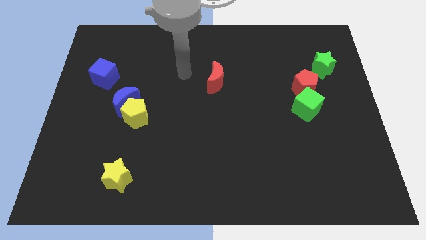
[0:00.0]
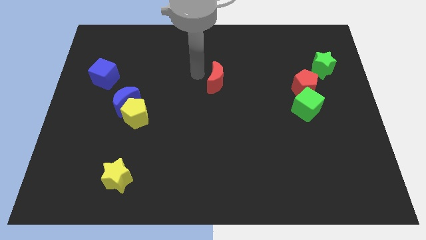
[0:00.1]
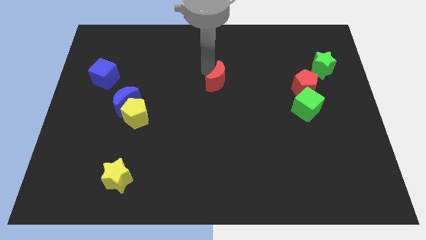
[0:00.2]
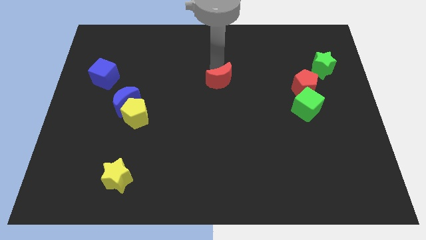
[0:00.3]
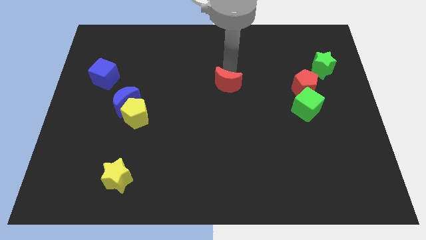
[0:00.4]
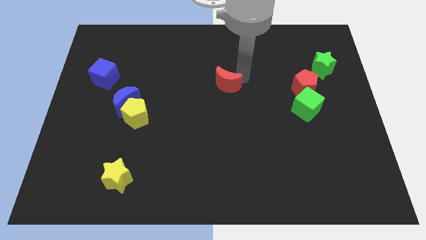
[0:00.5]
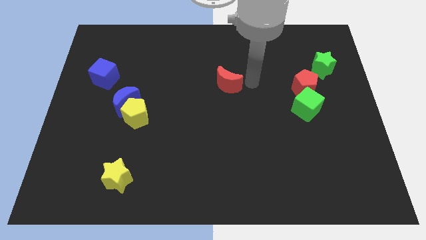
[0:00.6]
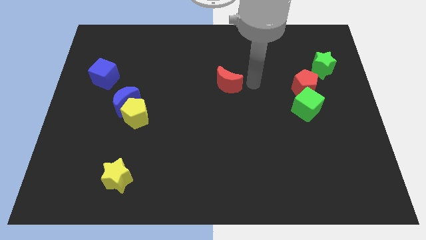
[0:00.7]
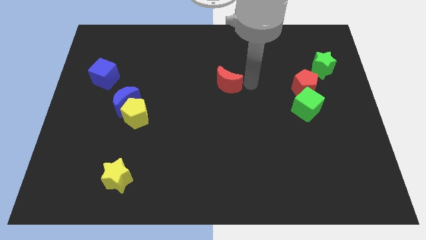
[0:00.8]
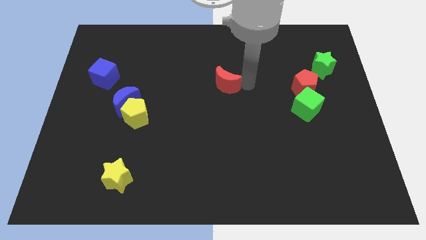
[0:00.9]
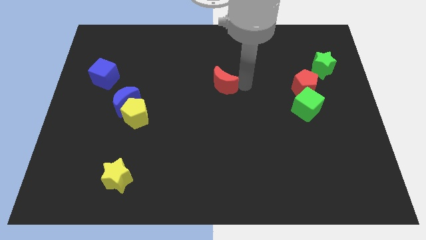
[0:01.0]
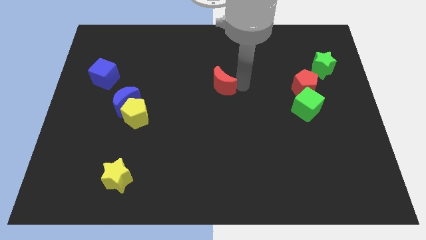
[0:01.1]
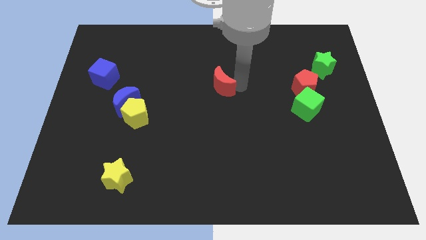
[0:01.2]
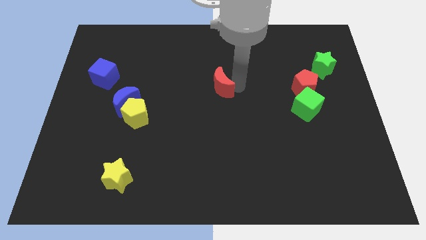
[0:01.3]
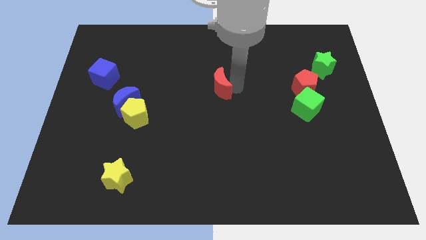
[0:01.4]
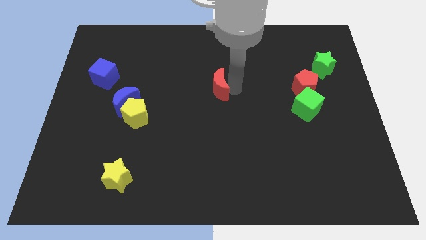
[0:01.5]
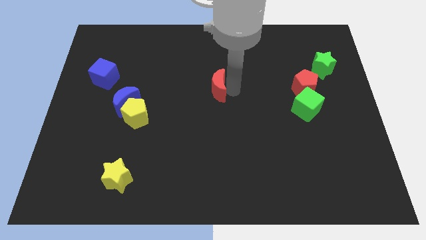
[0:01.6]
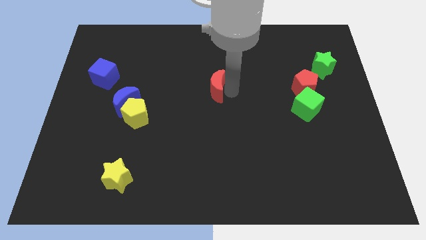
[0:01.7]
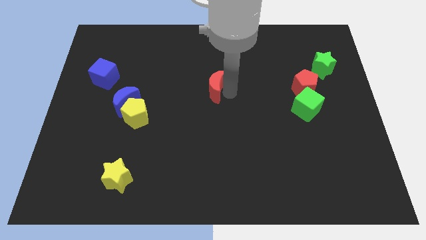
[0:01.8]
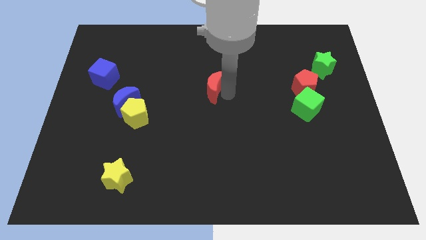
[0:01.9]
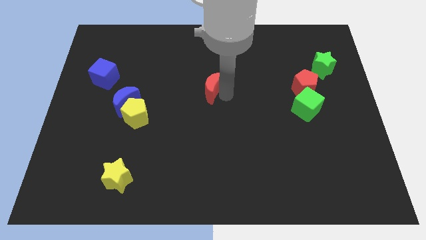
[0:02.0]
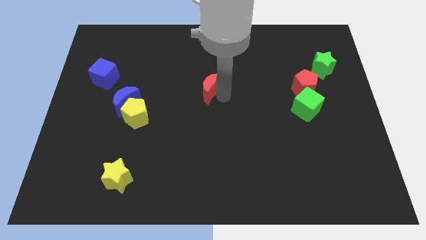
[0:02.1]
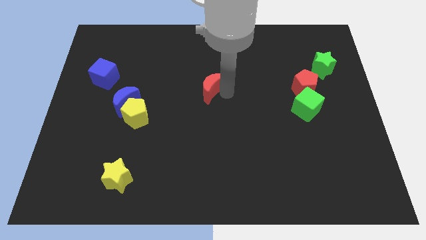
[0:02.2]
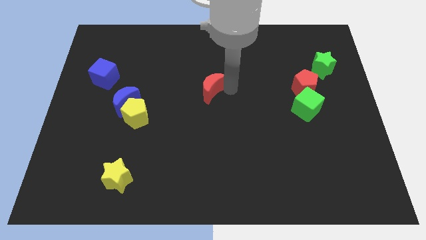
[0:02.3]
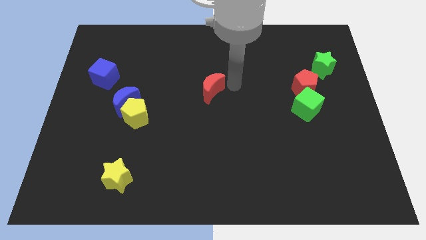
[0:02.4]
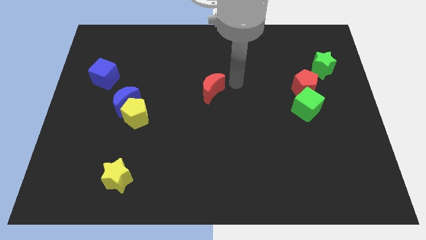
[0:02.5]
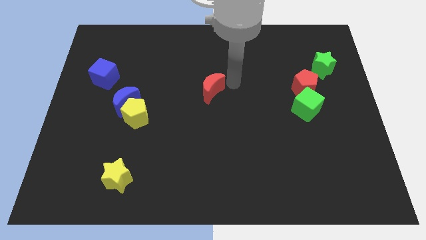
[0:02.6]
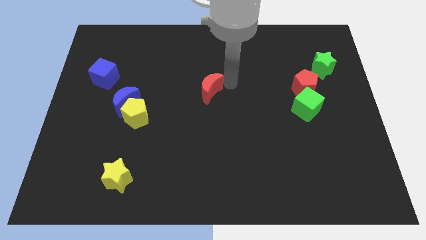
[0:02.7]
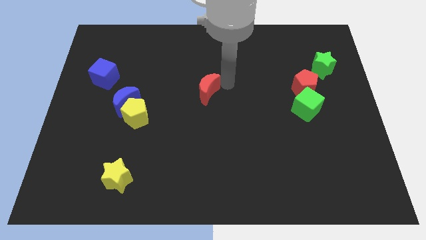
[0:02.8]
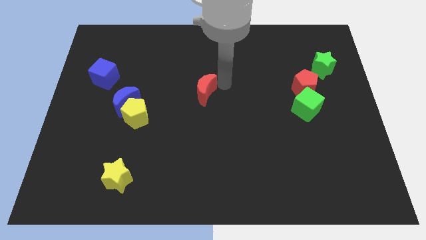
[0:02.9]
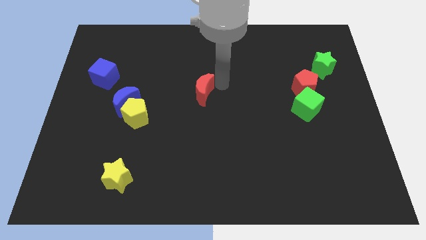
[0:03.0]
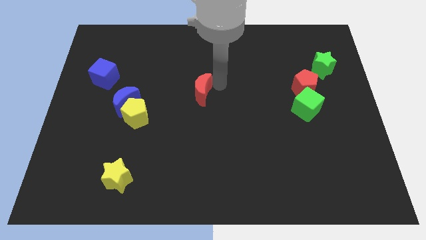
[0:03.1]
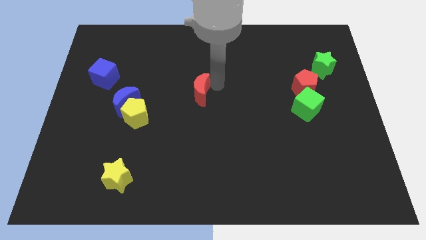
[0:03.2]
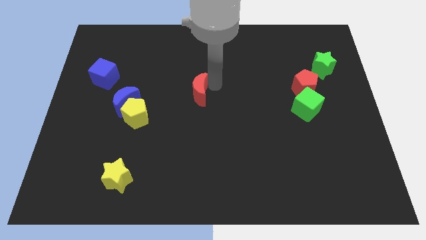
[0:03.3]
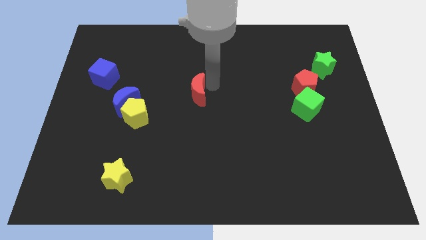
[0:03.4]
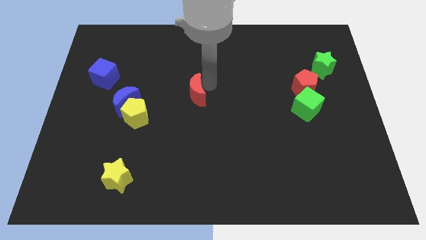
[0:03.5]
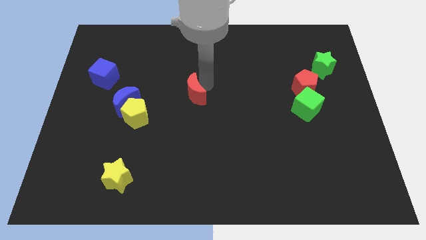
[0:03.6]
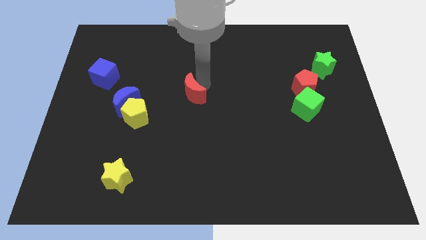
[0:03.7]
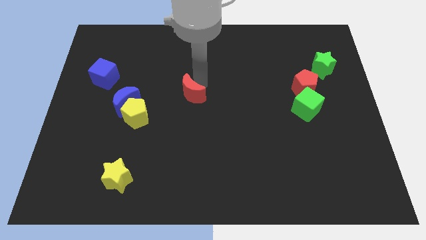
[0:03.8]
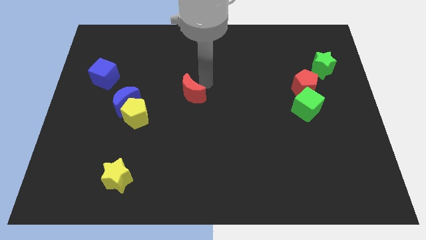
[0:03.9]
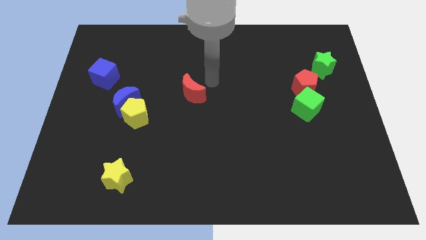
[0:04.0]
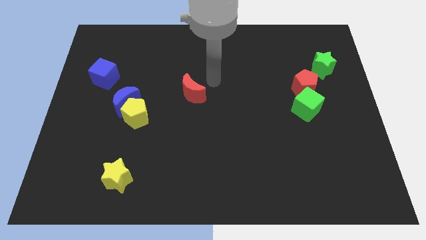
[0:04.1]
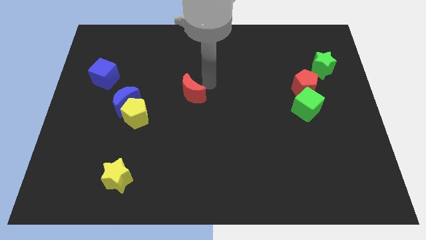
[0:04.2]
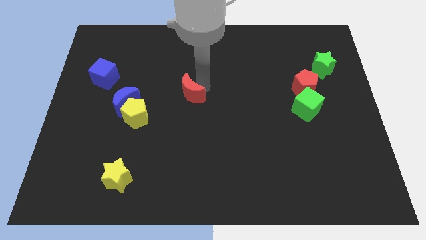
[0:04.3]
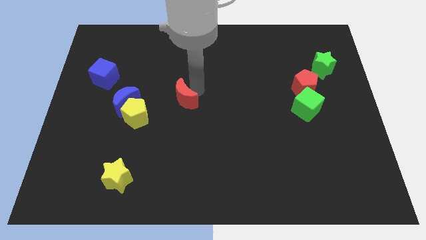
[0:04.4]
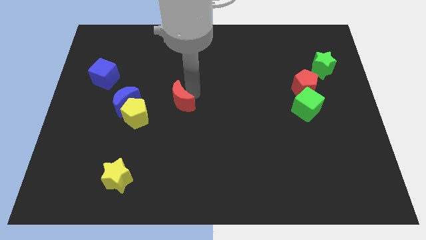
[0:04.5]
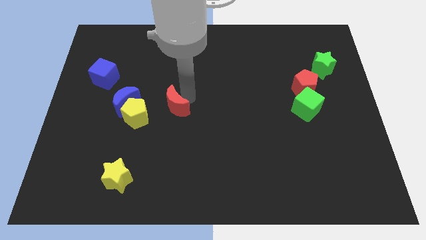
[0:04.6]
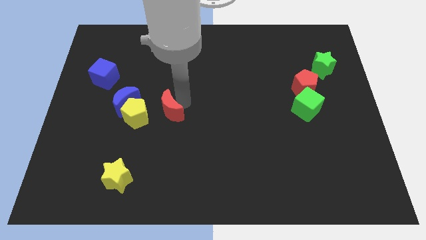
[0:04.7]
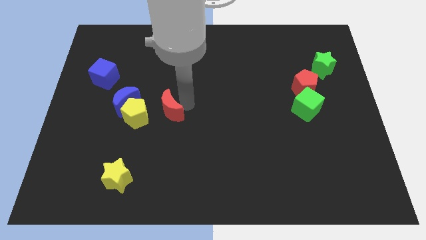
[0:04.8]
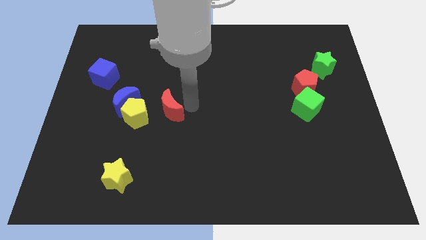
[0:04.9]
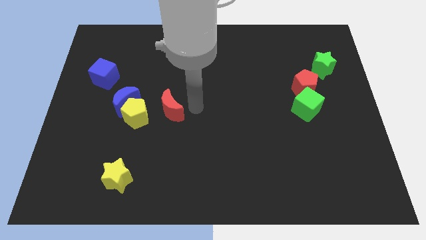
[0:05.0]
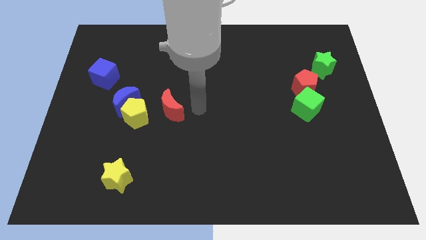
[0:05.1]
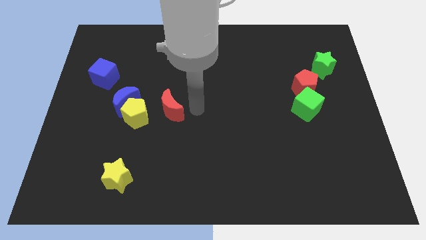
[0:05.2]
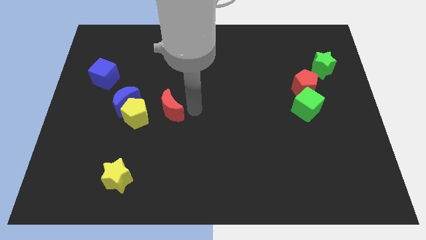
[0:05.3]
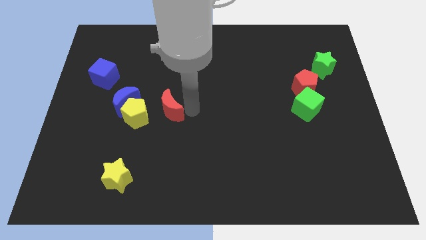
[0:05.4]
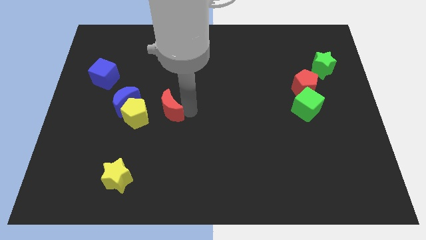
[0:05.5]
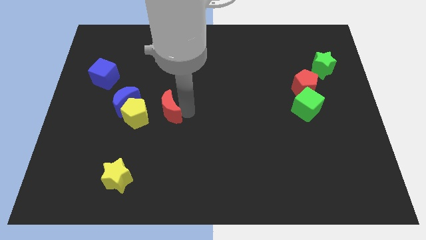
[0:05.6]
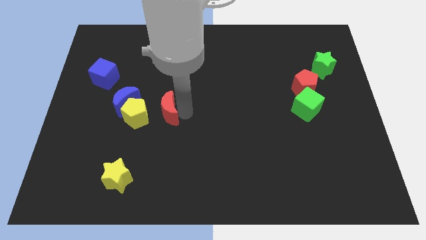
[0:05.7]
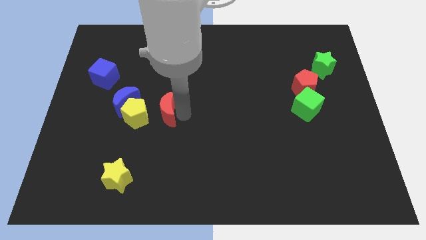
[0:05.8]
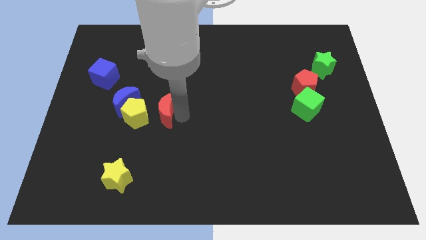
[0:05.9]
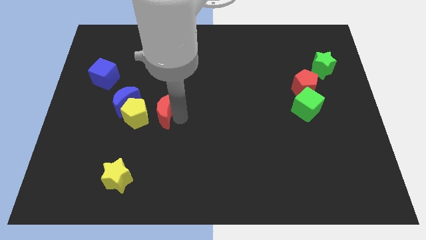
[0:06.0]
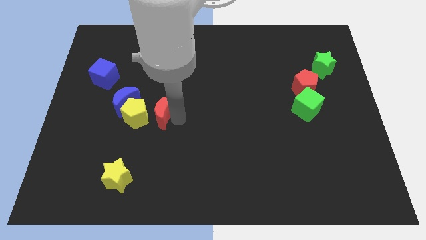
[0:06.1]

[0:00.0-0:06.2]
put the red moon close to the yellow pentagon

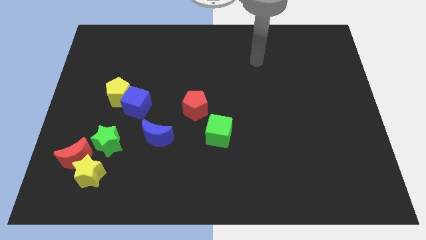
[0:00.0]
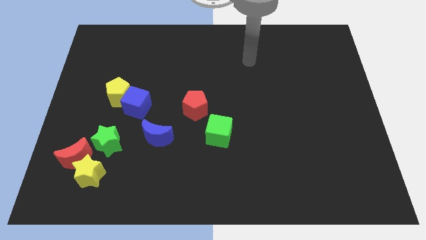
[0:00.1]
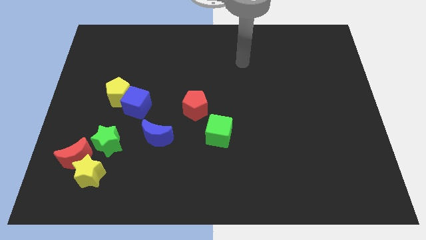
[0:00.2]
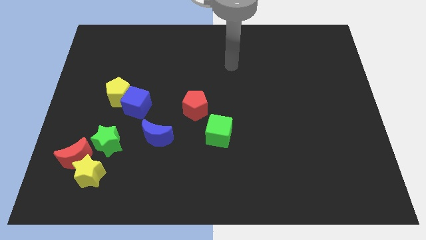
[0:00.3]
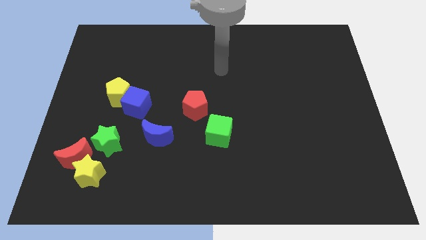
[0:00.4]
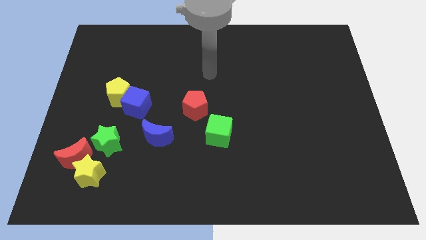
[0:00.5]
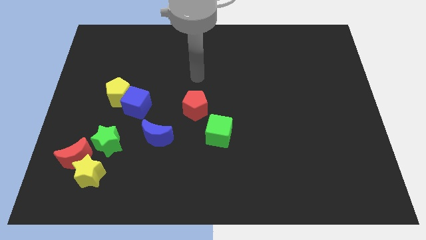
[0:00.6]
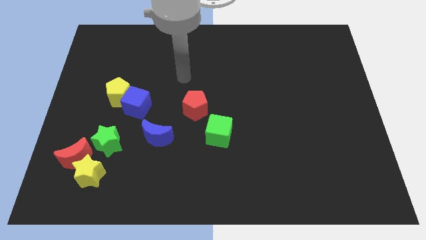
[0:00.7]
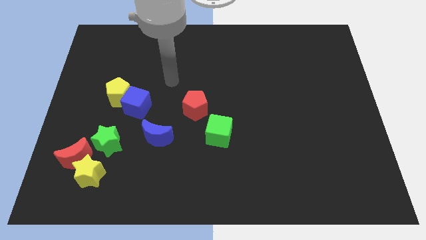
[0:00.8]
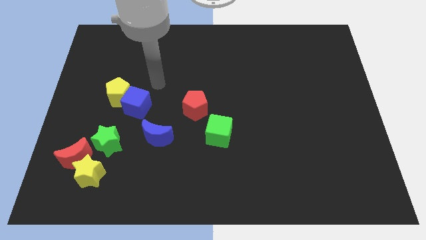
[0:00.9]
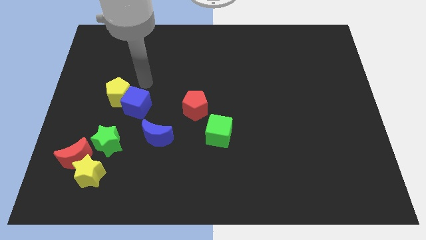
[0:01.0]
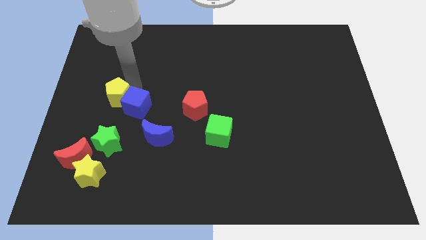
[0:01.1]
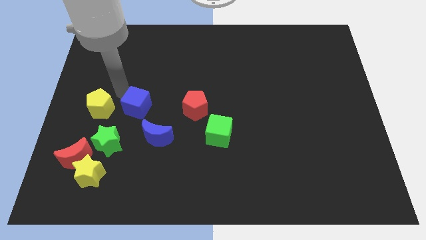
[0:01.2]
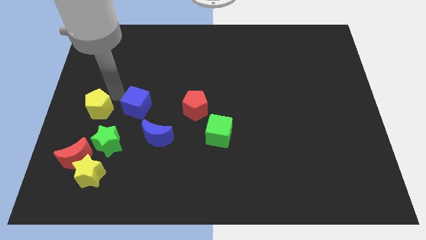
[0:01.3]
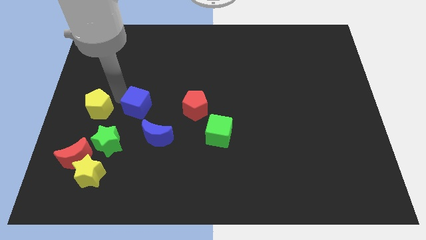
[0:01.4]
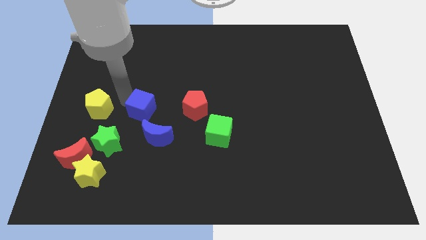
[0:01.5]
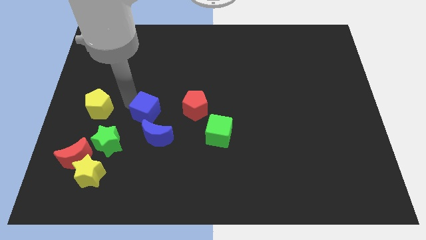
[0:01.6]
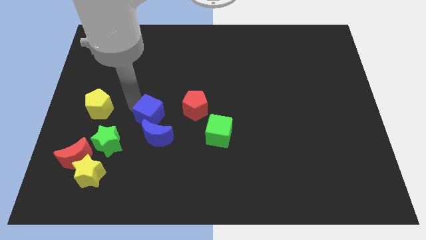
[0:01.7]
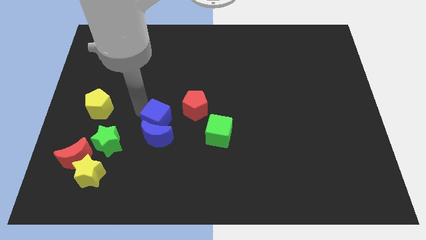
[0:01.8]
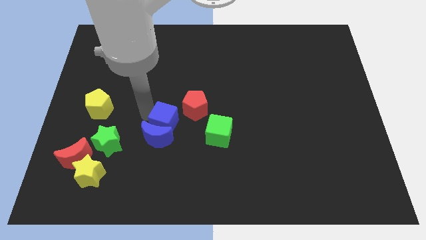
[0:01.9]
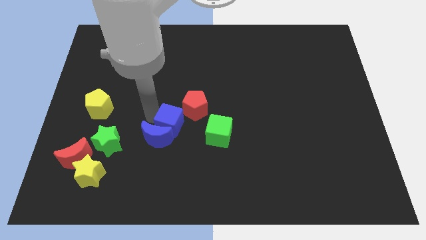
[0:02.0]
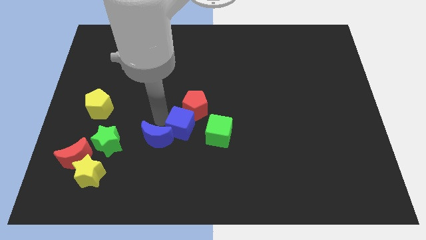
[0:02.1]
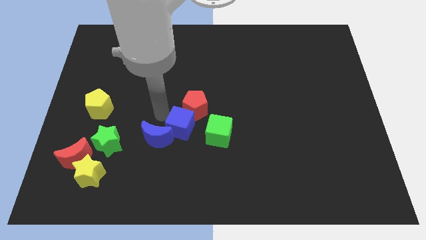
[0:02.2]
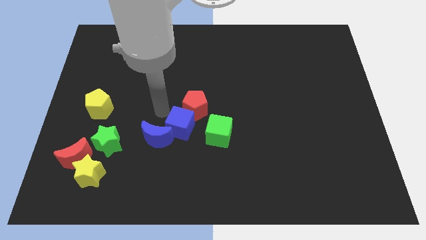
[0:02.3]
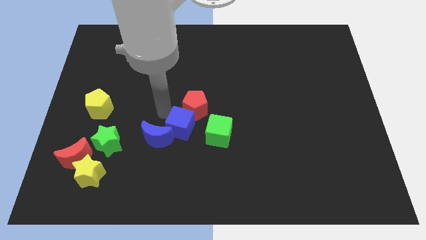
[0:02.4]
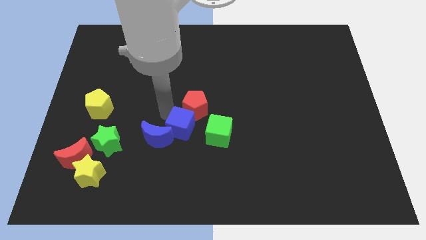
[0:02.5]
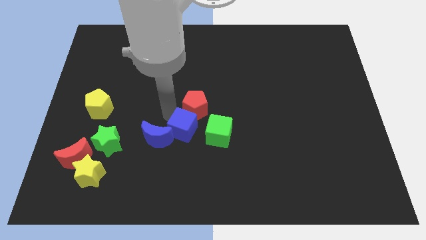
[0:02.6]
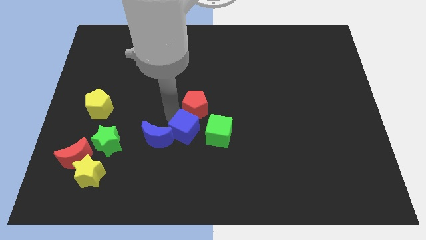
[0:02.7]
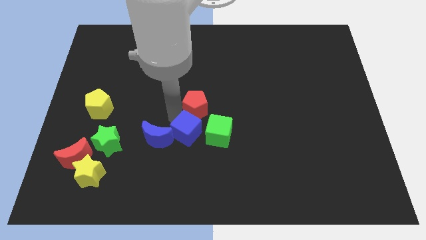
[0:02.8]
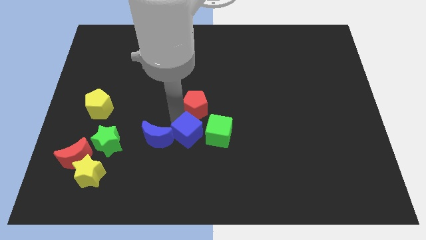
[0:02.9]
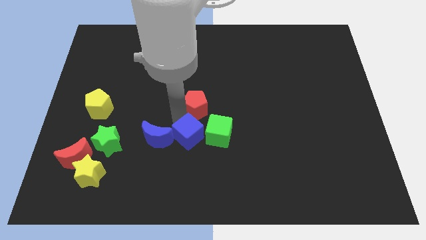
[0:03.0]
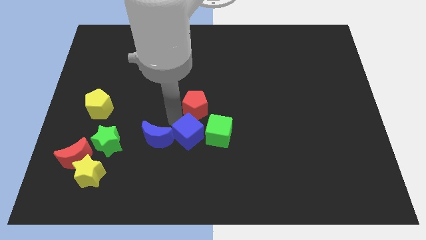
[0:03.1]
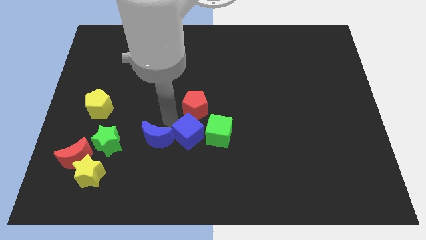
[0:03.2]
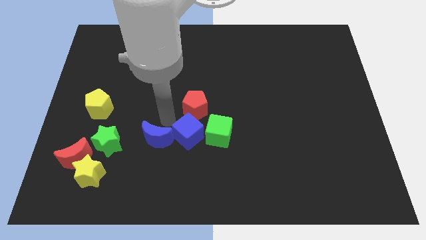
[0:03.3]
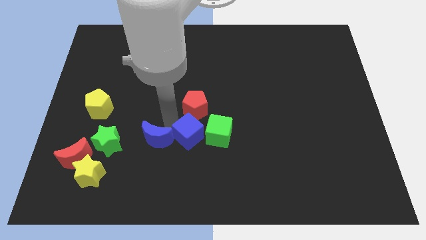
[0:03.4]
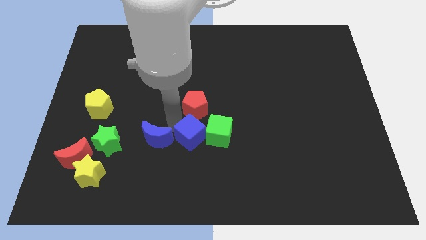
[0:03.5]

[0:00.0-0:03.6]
push the blue cube towards the green cube
